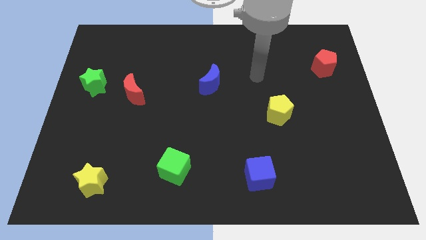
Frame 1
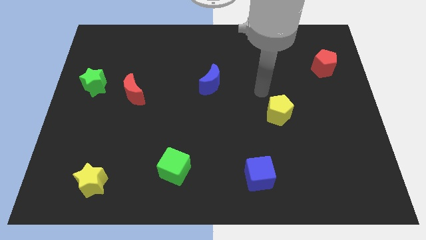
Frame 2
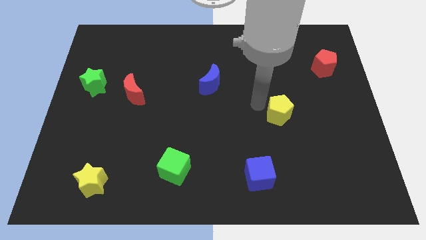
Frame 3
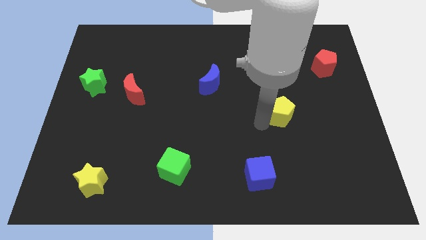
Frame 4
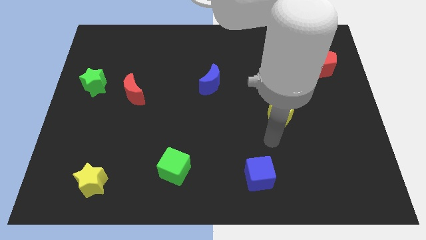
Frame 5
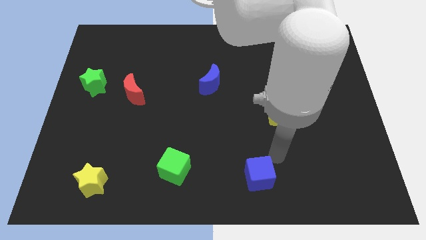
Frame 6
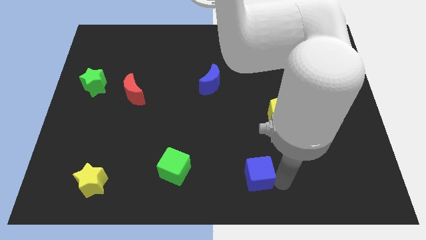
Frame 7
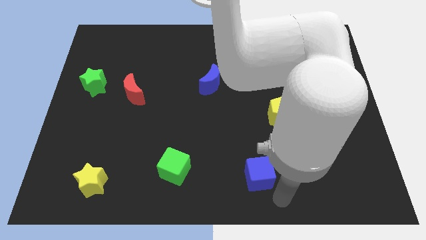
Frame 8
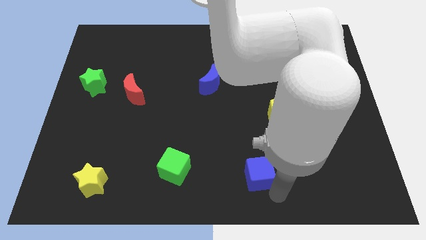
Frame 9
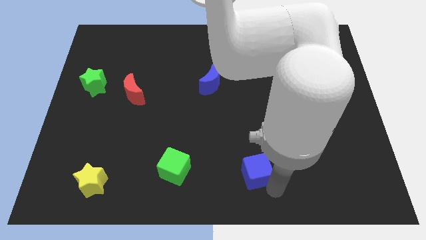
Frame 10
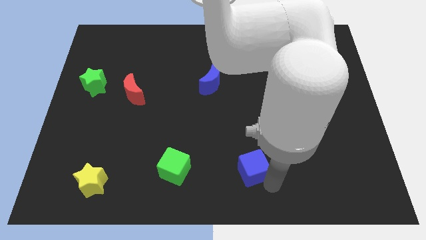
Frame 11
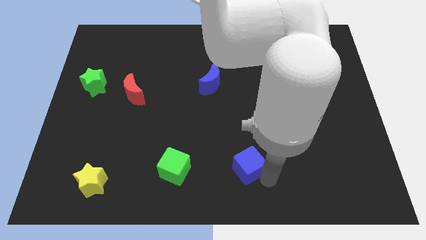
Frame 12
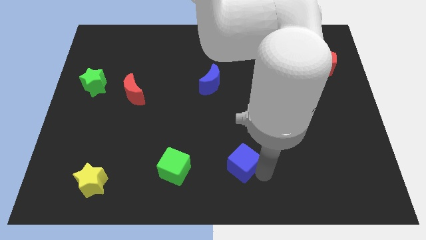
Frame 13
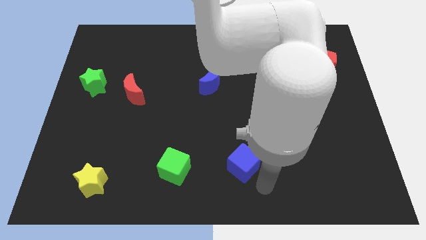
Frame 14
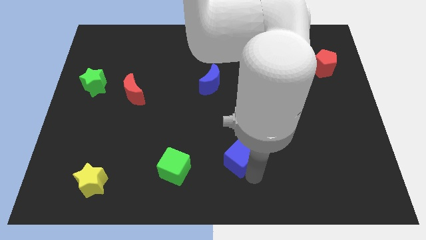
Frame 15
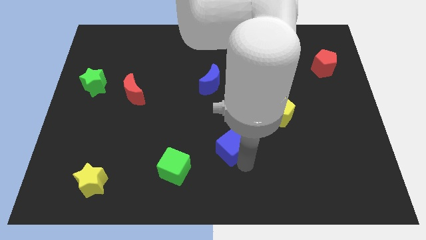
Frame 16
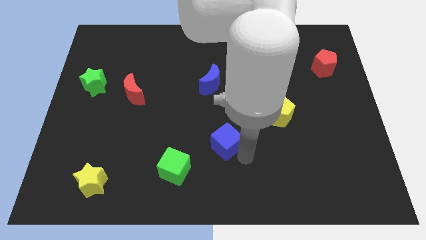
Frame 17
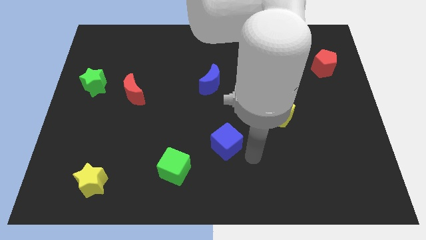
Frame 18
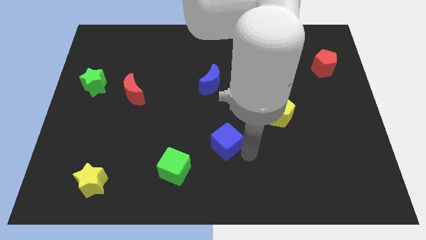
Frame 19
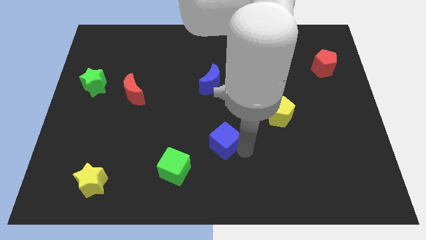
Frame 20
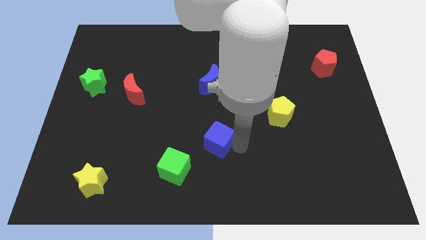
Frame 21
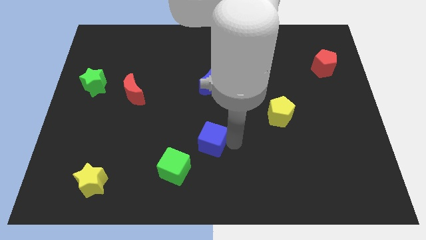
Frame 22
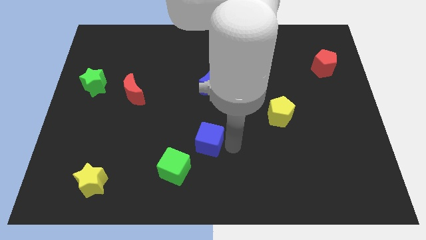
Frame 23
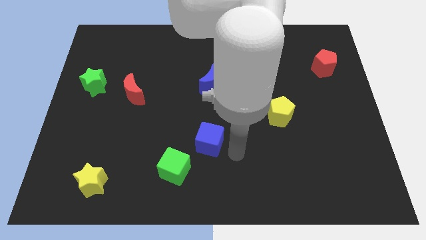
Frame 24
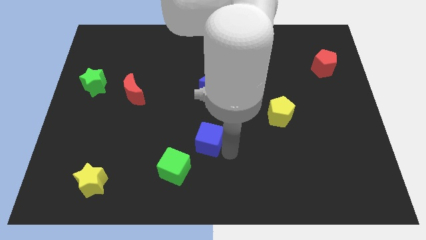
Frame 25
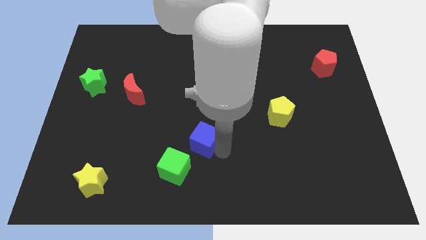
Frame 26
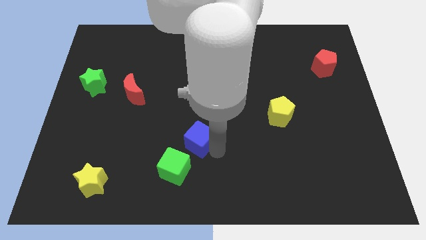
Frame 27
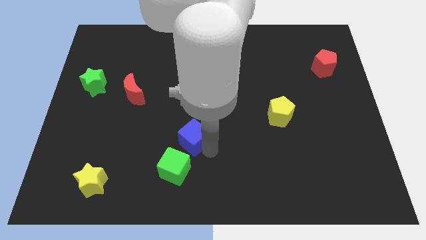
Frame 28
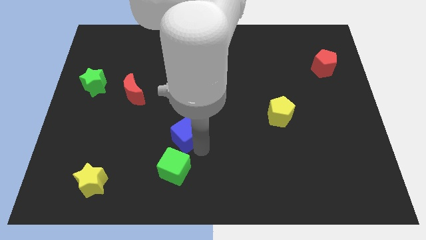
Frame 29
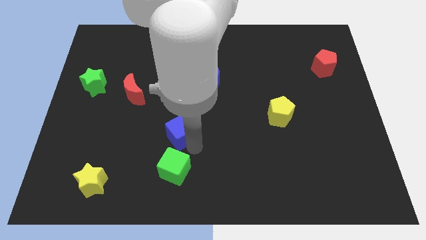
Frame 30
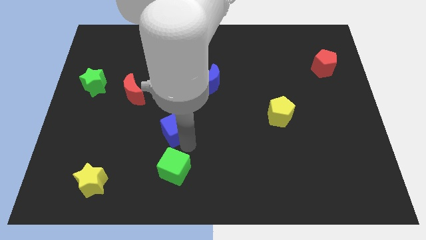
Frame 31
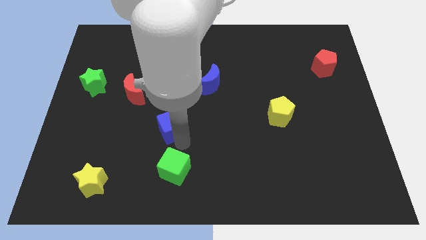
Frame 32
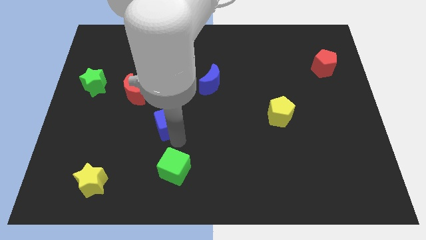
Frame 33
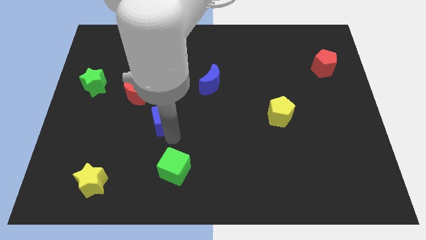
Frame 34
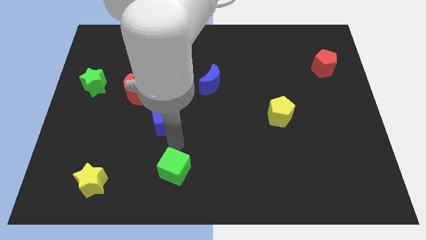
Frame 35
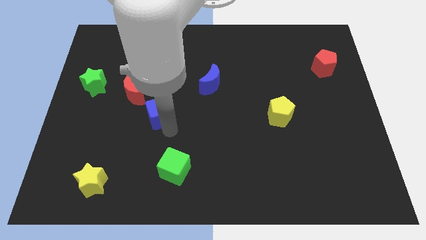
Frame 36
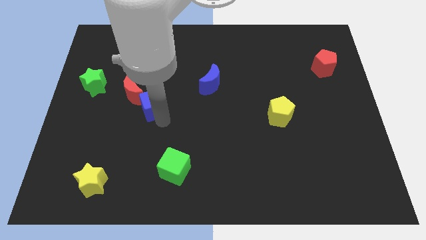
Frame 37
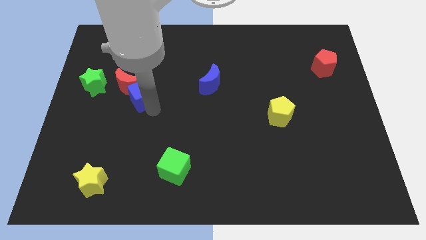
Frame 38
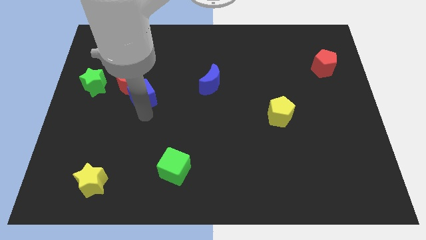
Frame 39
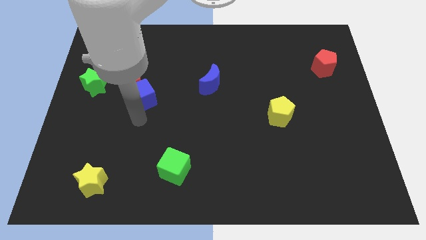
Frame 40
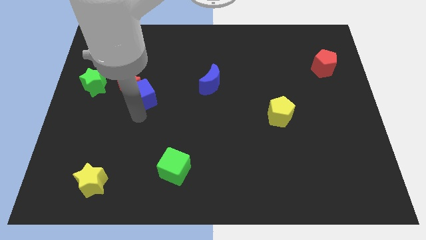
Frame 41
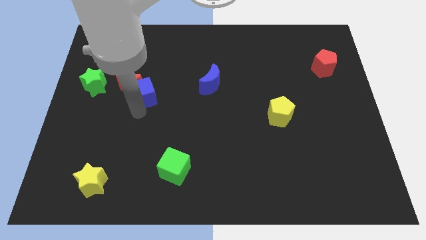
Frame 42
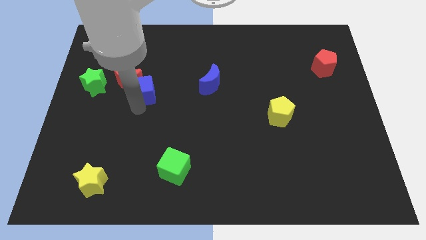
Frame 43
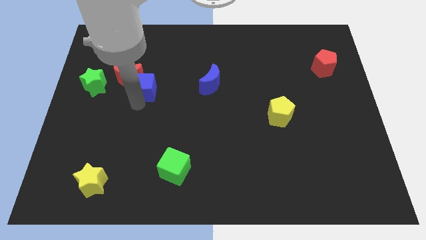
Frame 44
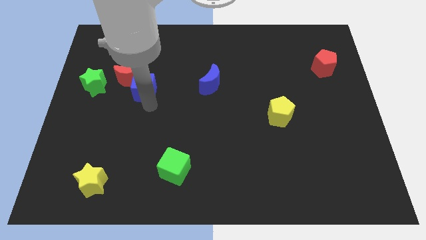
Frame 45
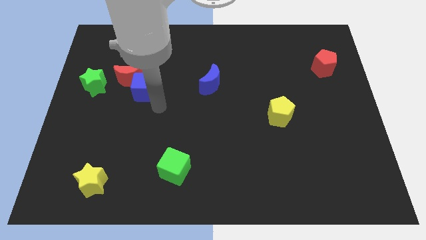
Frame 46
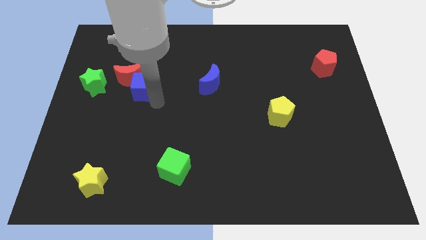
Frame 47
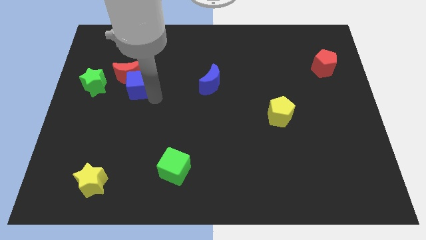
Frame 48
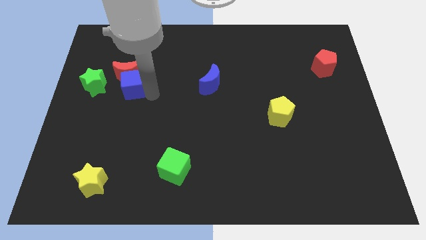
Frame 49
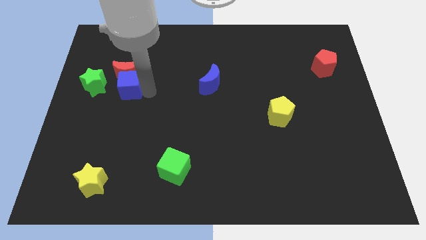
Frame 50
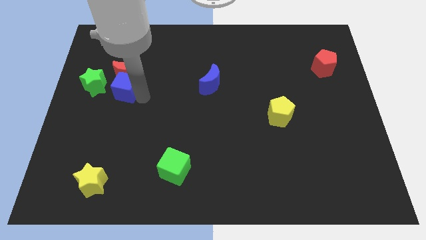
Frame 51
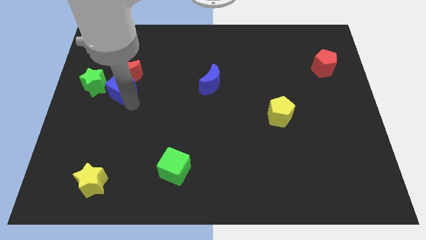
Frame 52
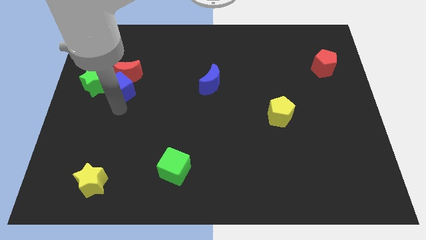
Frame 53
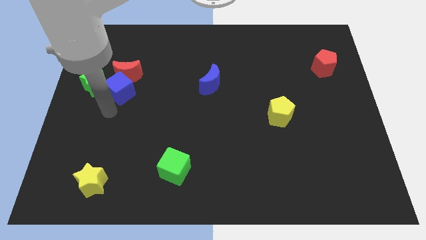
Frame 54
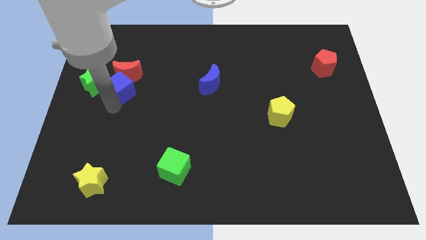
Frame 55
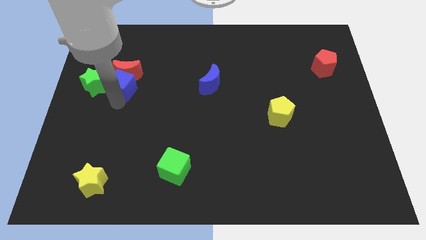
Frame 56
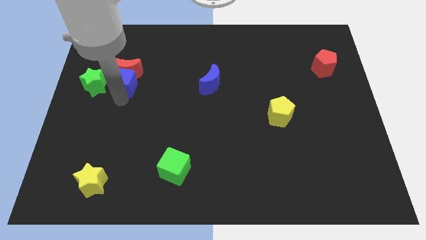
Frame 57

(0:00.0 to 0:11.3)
push the blue cube to the top right side of the green star

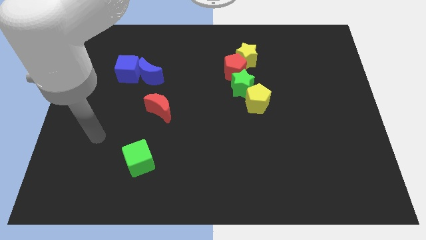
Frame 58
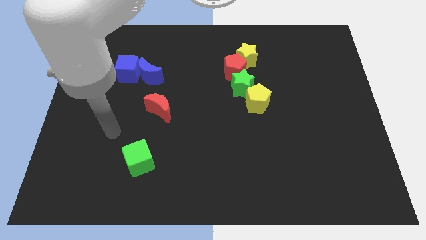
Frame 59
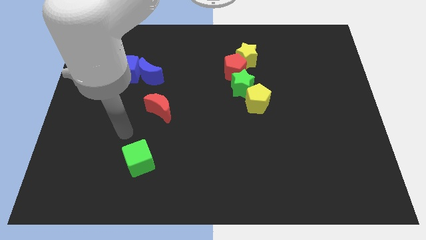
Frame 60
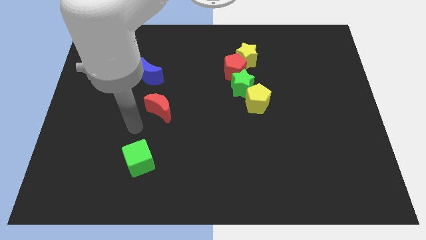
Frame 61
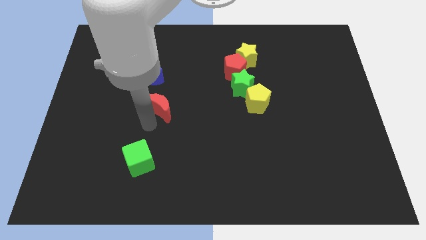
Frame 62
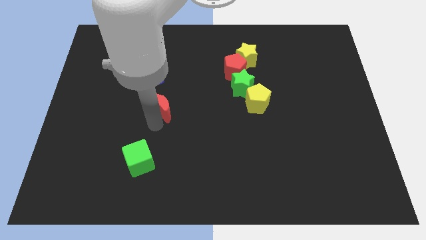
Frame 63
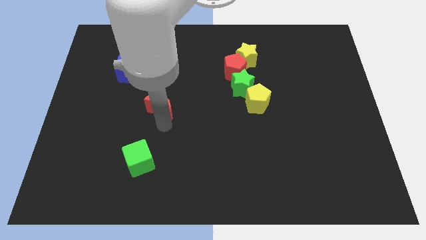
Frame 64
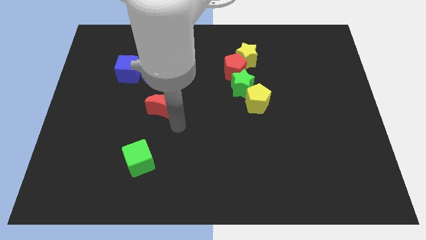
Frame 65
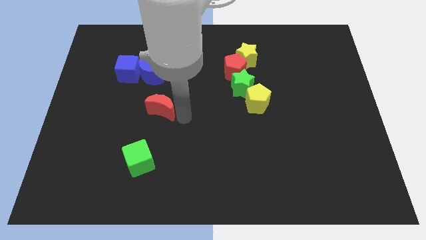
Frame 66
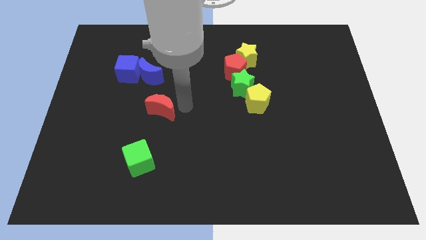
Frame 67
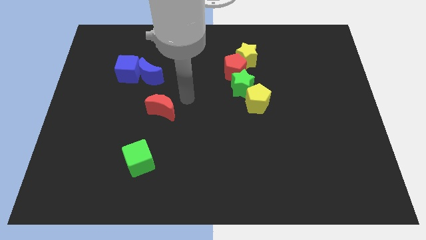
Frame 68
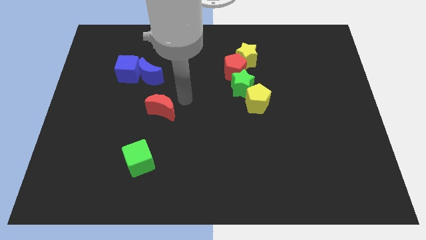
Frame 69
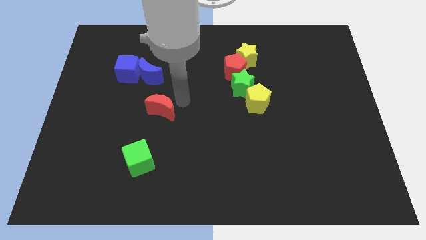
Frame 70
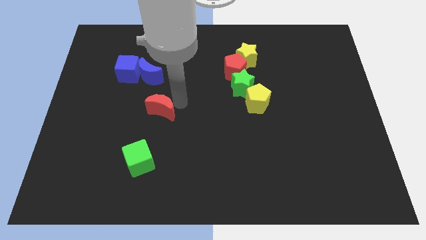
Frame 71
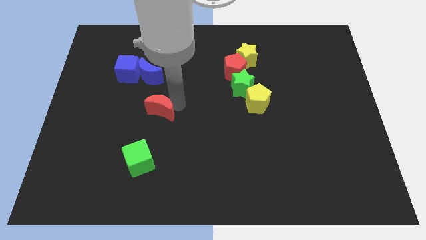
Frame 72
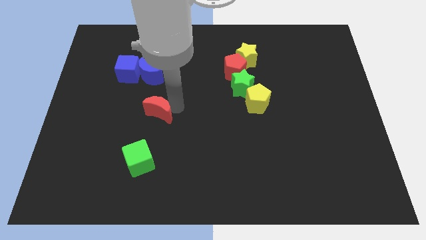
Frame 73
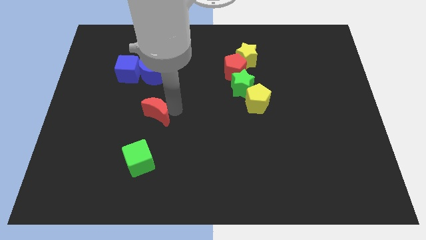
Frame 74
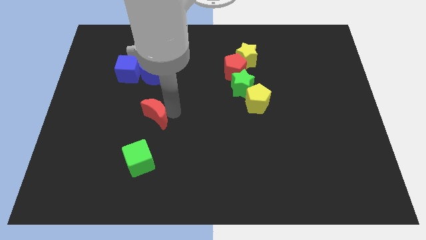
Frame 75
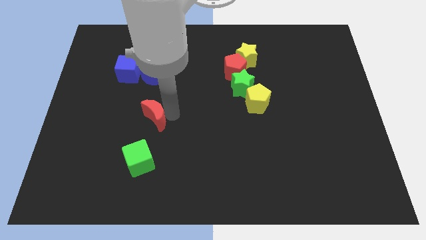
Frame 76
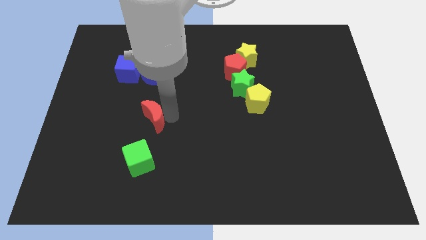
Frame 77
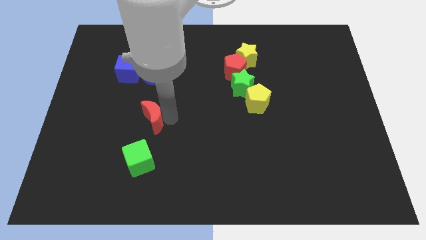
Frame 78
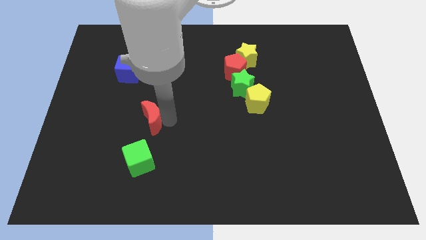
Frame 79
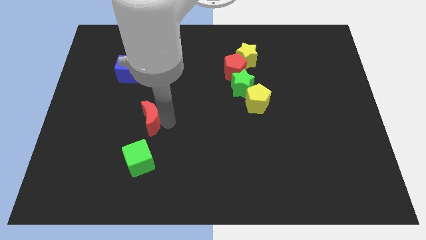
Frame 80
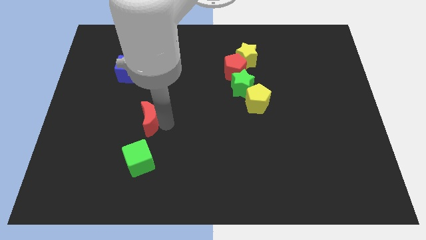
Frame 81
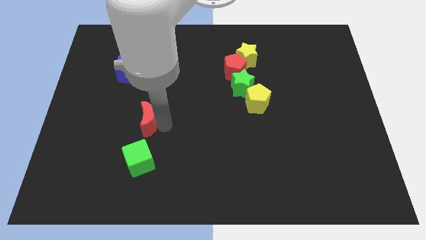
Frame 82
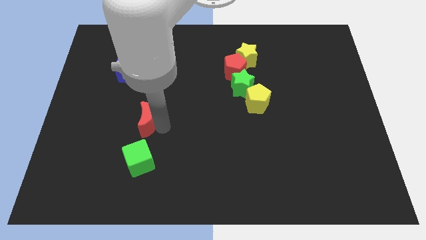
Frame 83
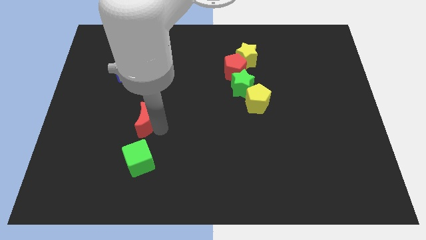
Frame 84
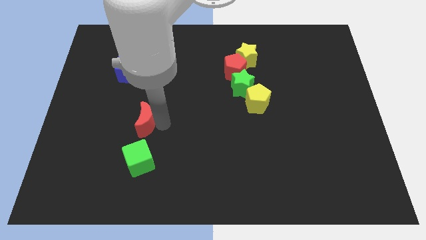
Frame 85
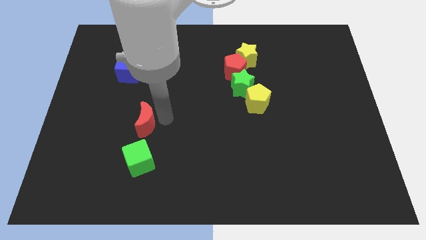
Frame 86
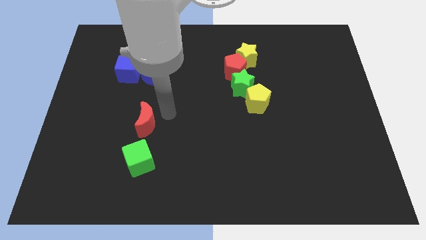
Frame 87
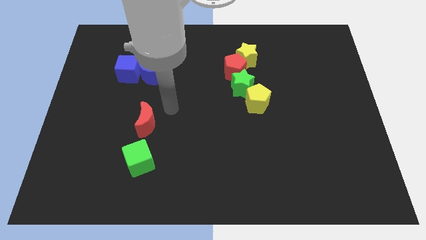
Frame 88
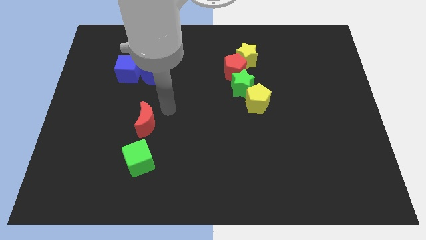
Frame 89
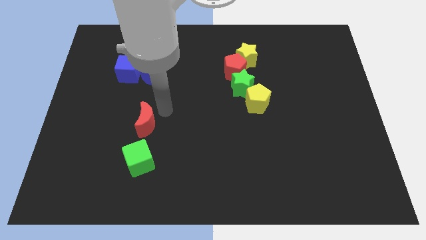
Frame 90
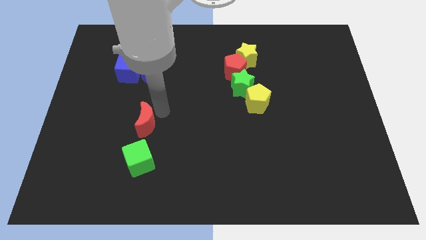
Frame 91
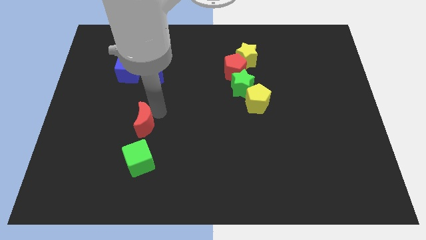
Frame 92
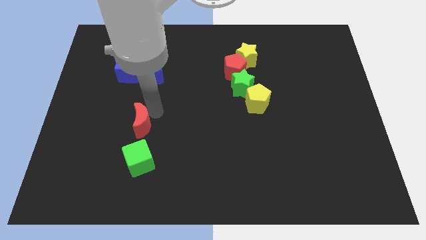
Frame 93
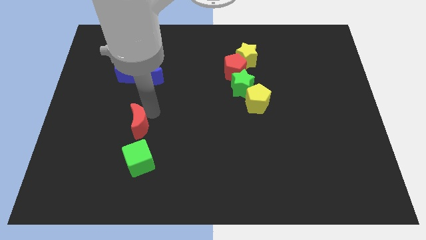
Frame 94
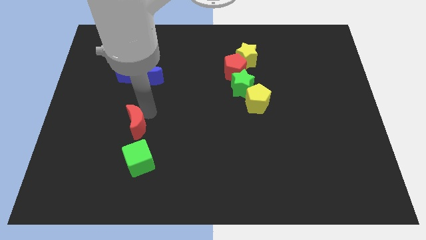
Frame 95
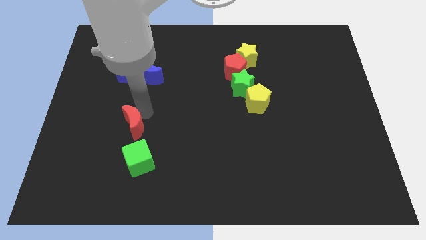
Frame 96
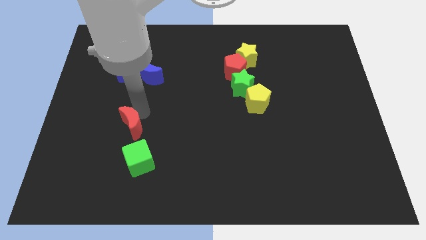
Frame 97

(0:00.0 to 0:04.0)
slide the red moon to the top left of the green cube
